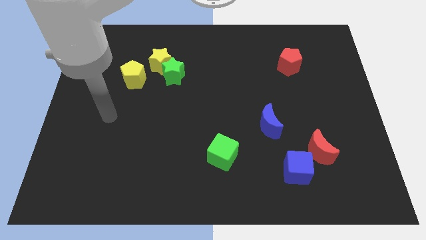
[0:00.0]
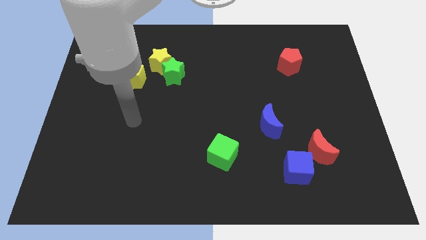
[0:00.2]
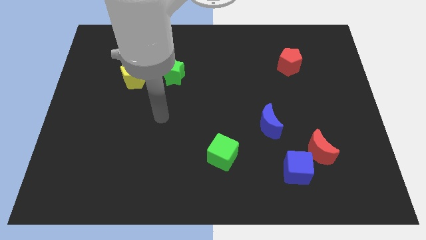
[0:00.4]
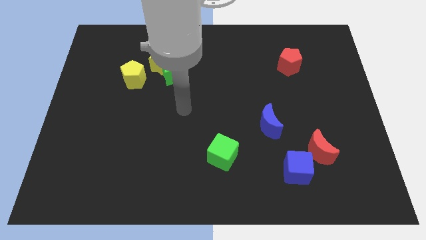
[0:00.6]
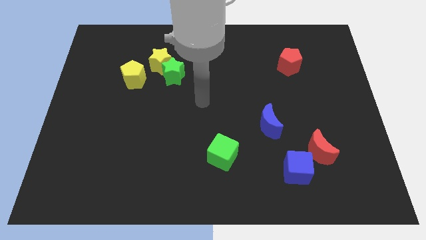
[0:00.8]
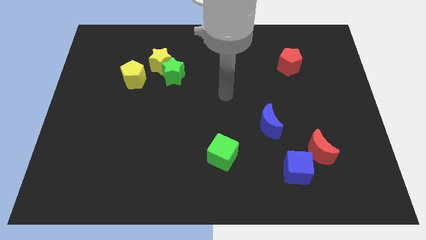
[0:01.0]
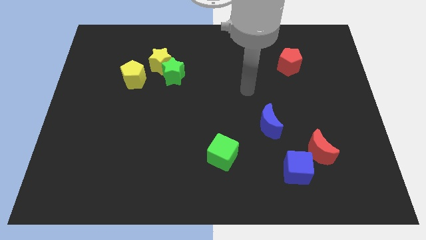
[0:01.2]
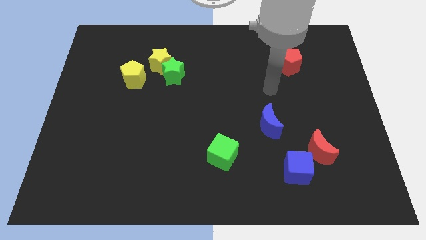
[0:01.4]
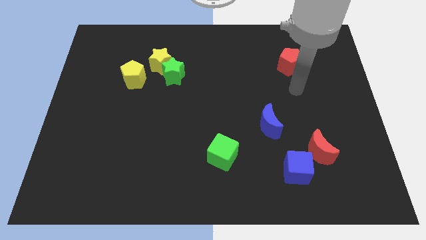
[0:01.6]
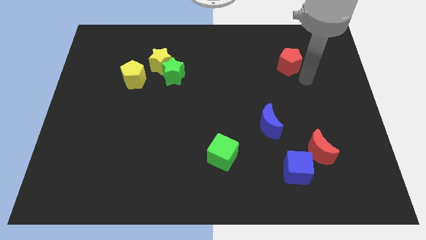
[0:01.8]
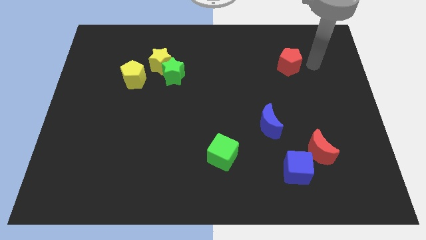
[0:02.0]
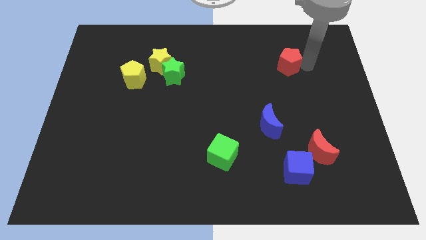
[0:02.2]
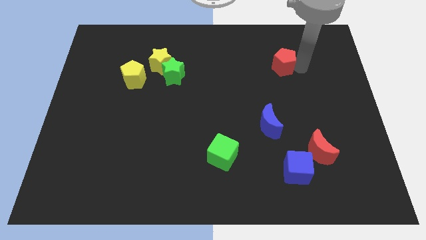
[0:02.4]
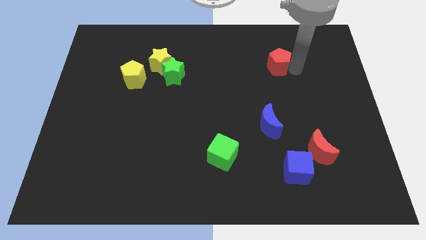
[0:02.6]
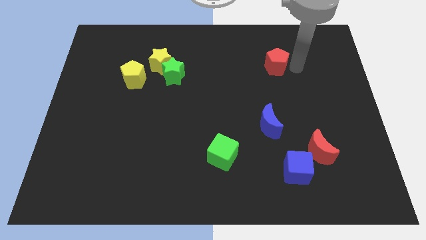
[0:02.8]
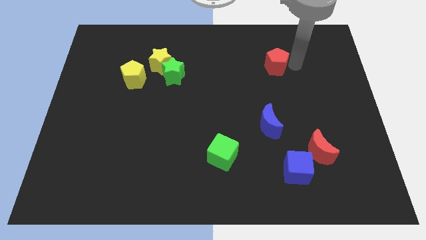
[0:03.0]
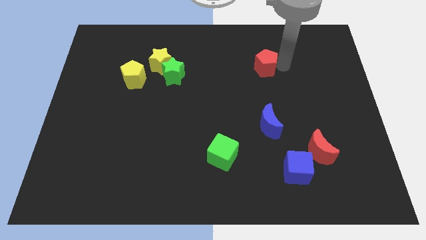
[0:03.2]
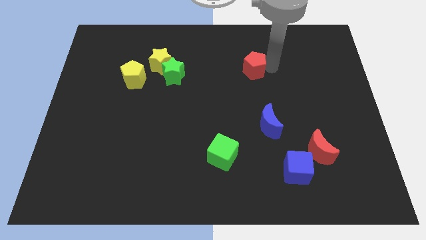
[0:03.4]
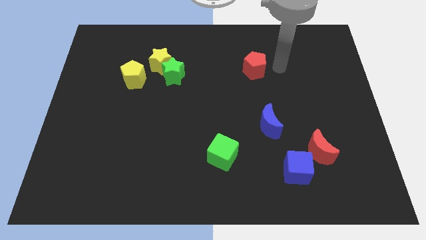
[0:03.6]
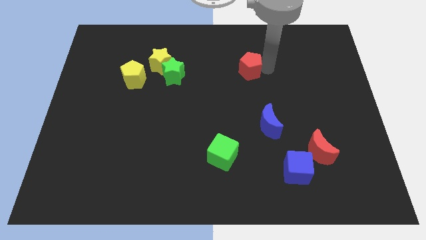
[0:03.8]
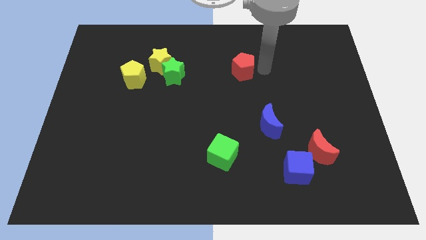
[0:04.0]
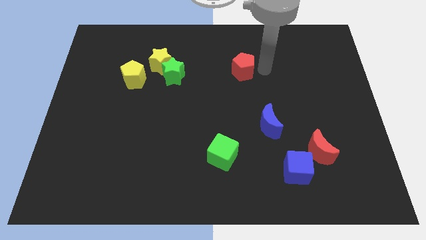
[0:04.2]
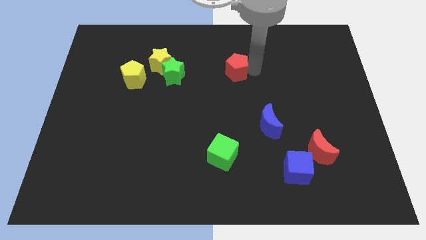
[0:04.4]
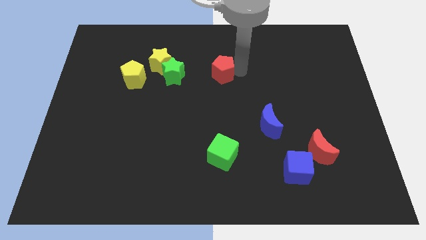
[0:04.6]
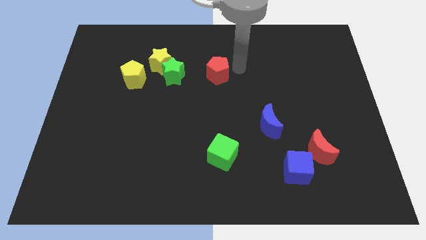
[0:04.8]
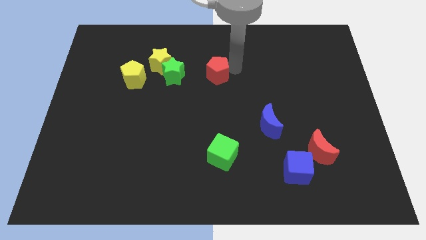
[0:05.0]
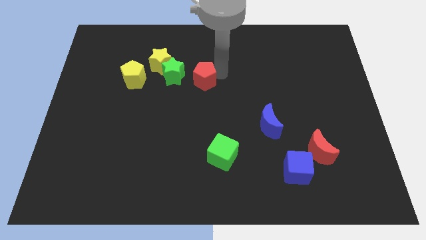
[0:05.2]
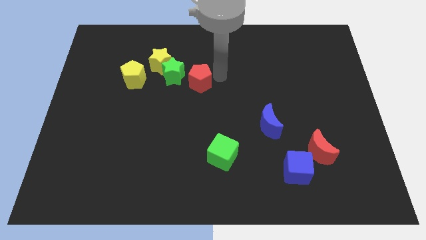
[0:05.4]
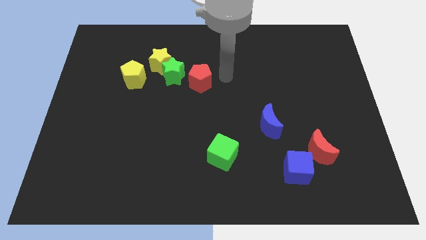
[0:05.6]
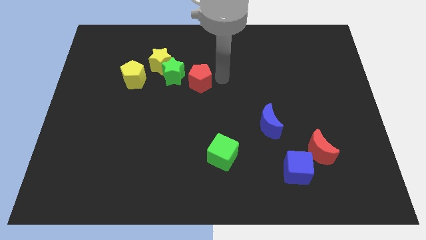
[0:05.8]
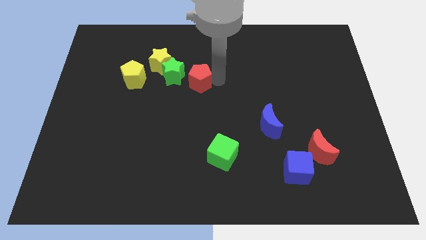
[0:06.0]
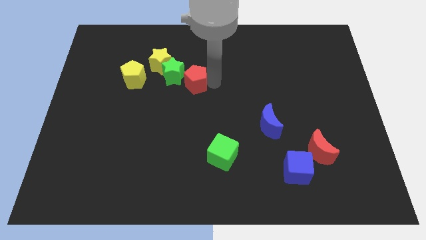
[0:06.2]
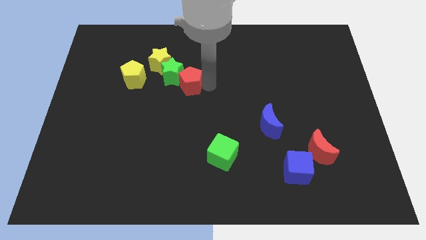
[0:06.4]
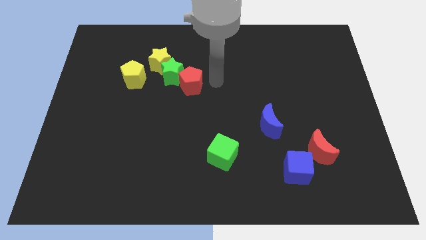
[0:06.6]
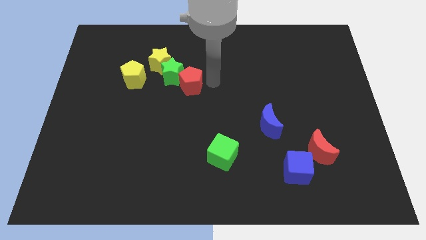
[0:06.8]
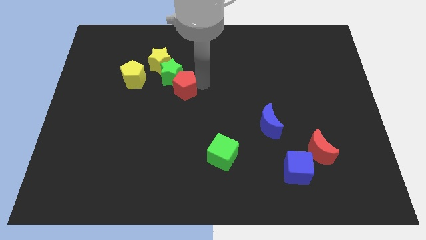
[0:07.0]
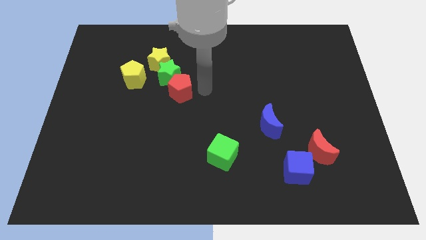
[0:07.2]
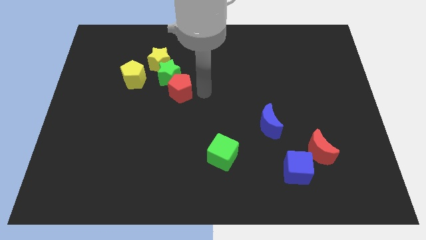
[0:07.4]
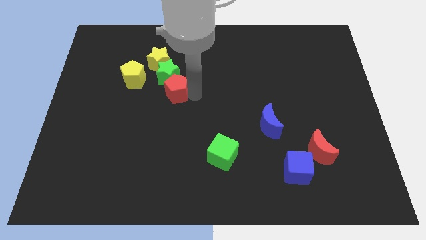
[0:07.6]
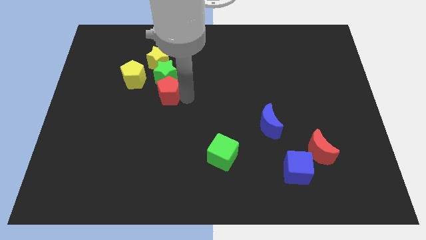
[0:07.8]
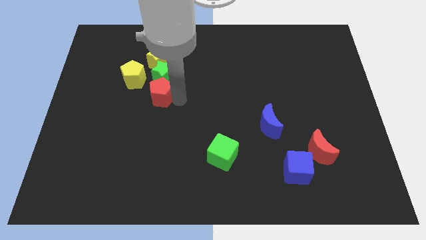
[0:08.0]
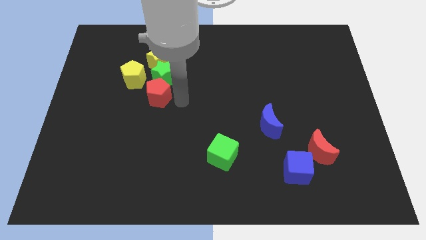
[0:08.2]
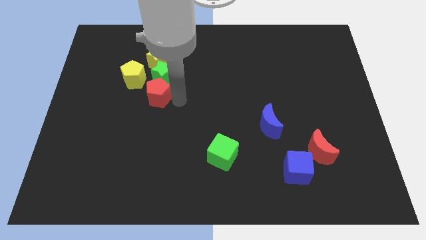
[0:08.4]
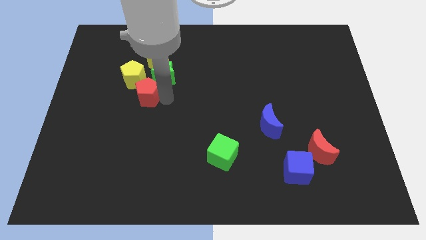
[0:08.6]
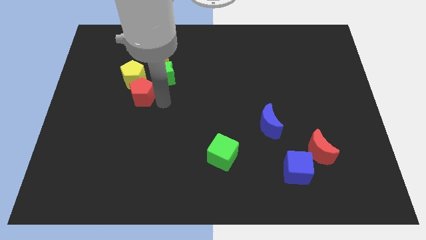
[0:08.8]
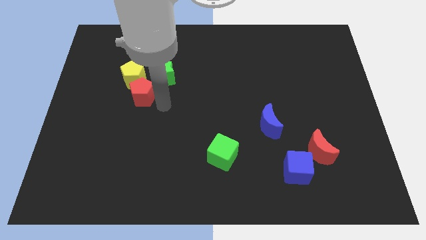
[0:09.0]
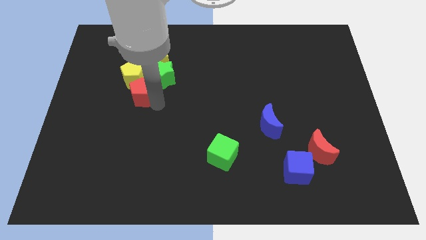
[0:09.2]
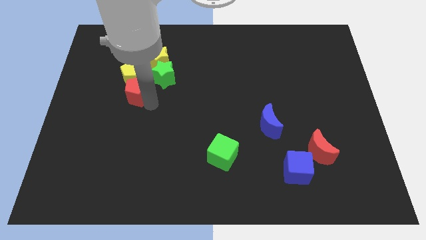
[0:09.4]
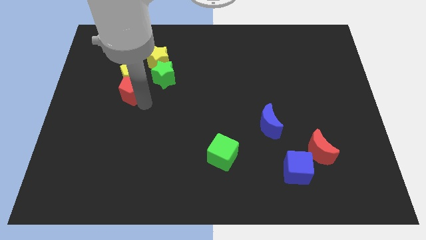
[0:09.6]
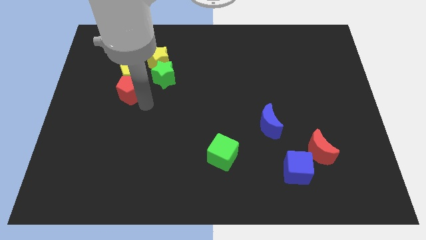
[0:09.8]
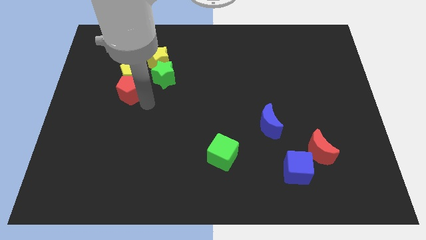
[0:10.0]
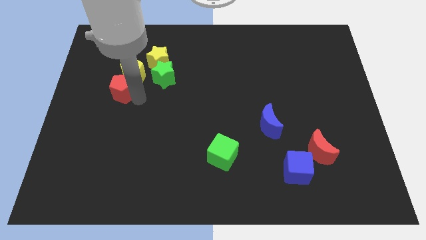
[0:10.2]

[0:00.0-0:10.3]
push the red pentagon to the left of the green star

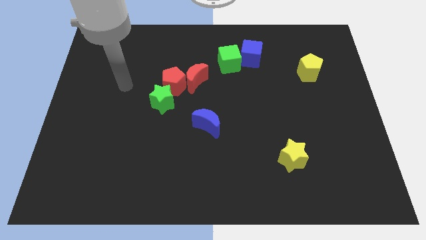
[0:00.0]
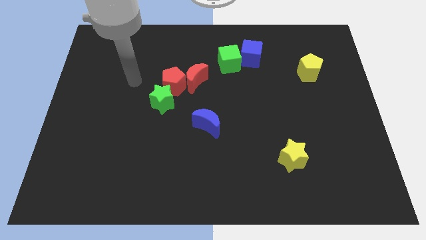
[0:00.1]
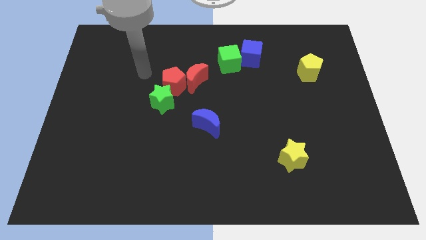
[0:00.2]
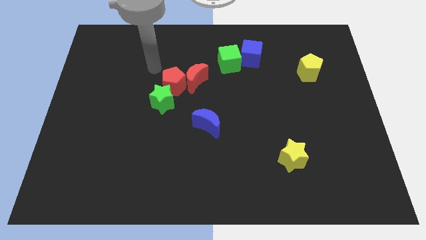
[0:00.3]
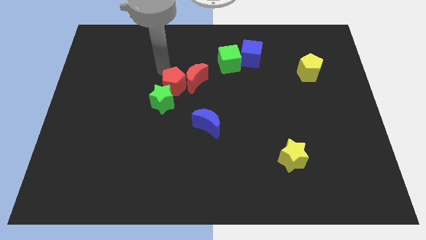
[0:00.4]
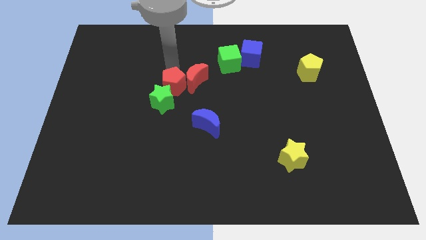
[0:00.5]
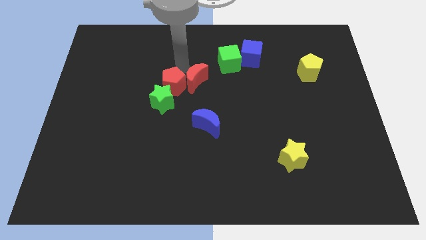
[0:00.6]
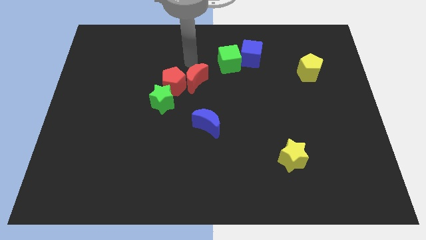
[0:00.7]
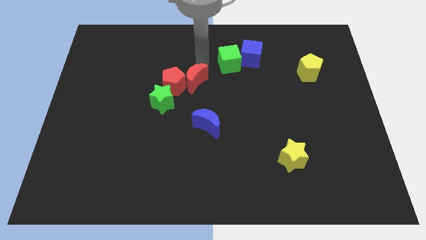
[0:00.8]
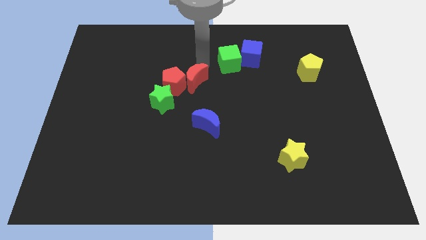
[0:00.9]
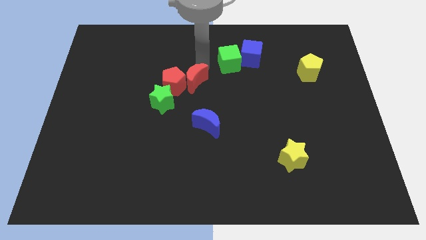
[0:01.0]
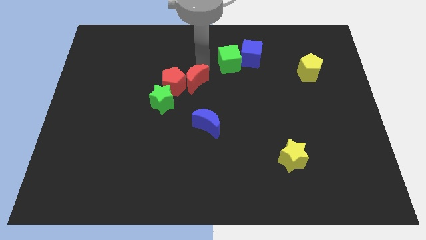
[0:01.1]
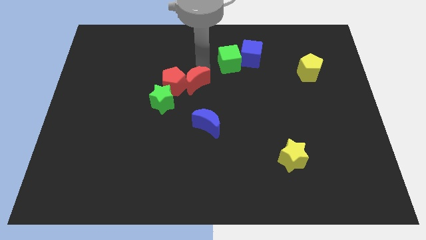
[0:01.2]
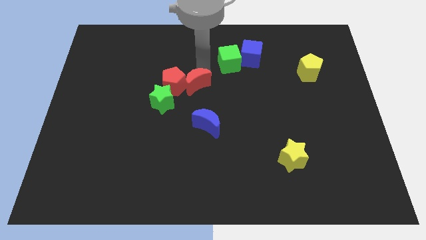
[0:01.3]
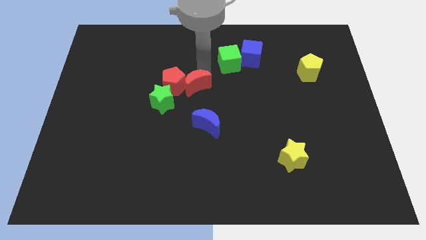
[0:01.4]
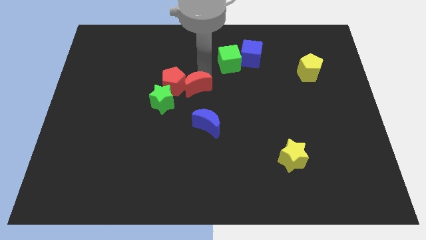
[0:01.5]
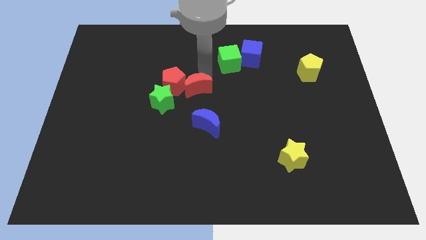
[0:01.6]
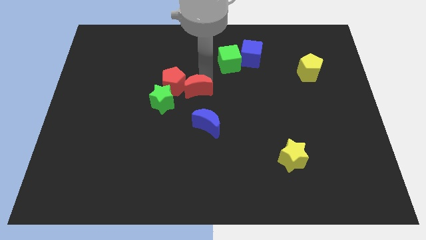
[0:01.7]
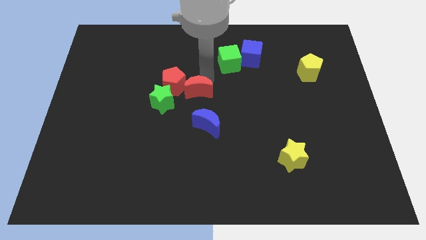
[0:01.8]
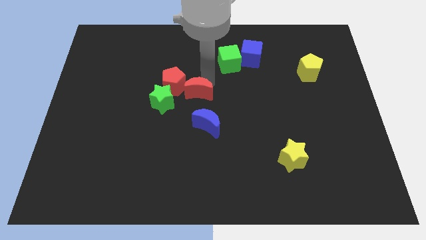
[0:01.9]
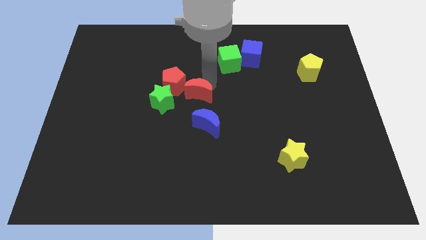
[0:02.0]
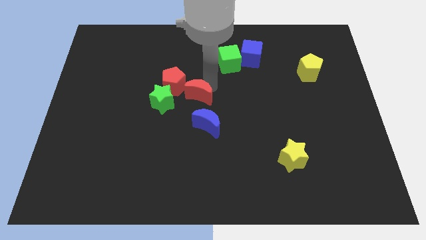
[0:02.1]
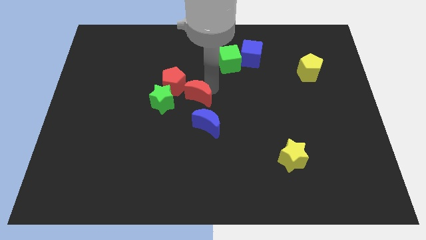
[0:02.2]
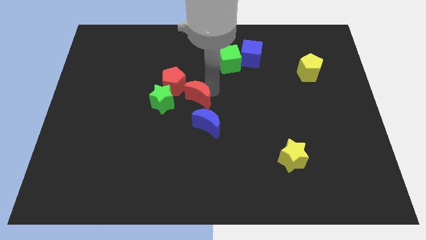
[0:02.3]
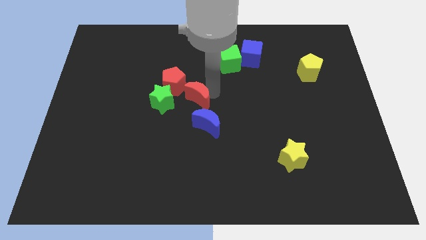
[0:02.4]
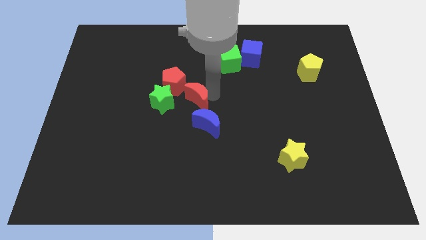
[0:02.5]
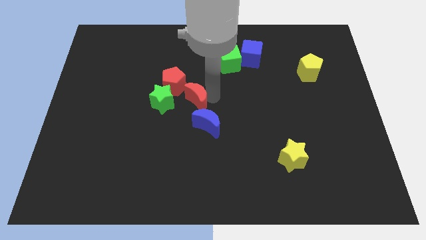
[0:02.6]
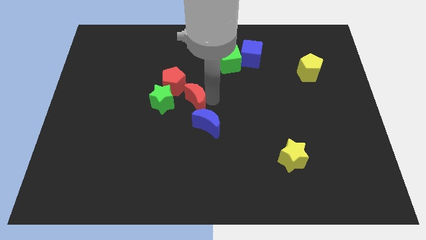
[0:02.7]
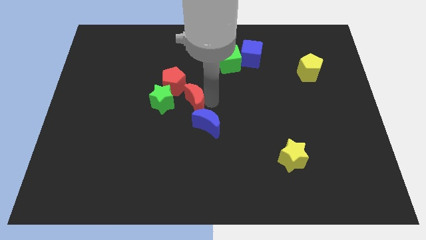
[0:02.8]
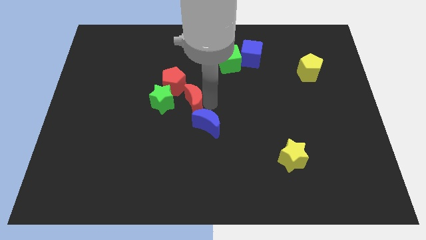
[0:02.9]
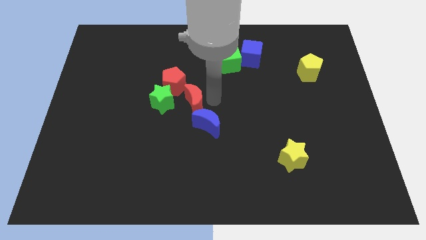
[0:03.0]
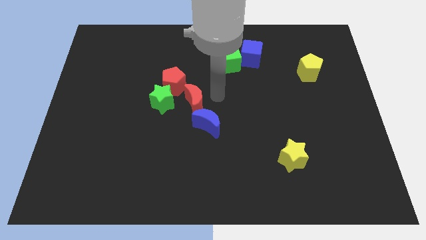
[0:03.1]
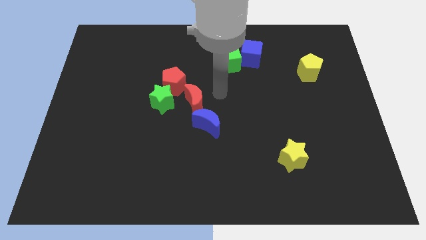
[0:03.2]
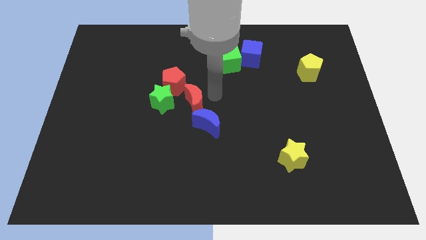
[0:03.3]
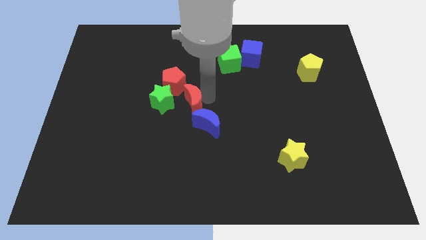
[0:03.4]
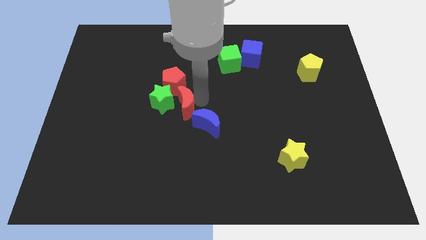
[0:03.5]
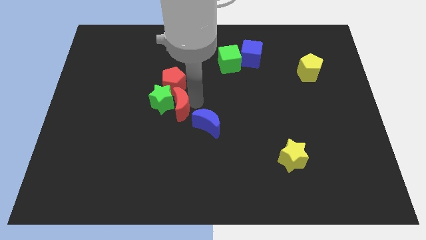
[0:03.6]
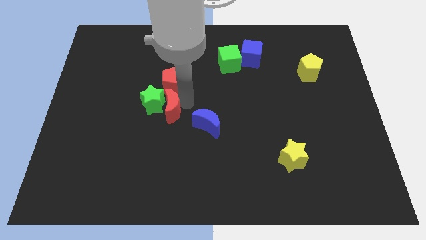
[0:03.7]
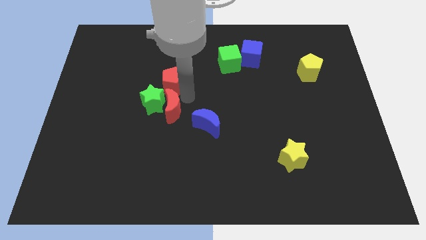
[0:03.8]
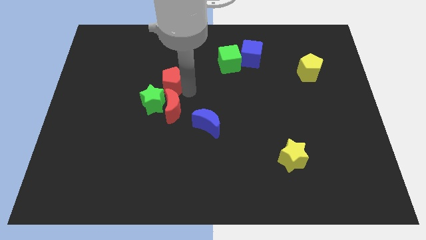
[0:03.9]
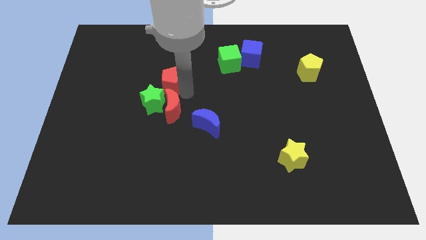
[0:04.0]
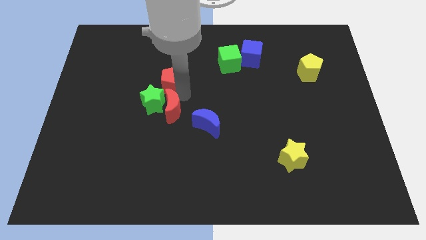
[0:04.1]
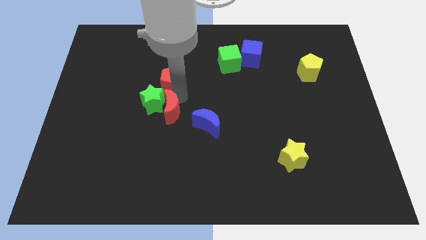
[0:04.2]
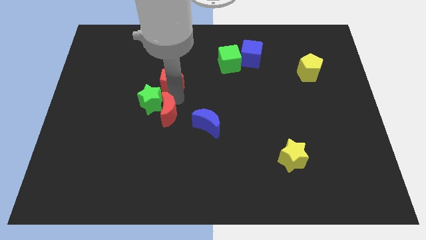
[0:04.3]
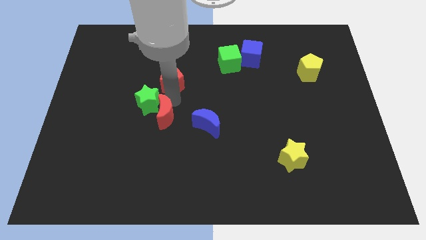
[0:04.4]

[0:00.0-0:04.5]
push the red moon below the green star
